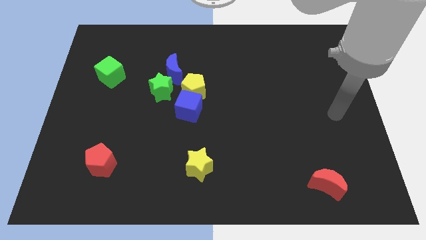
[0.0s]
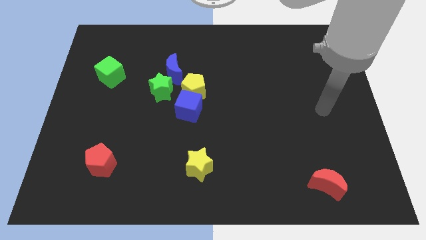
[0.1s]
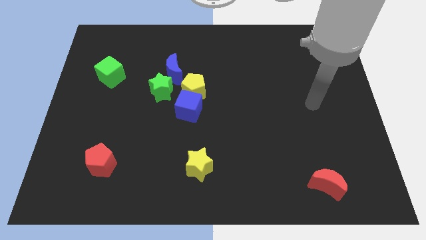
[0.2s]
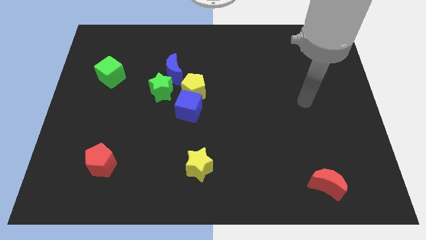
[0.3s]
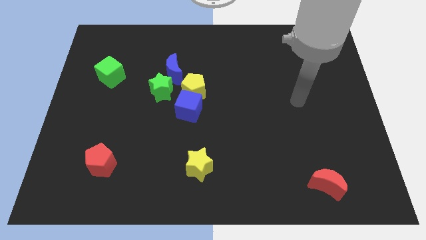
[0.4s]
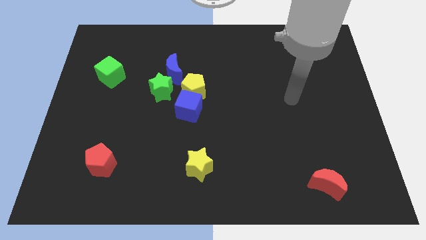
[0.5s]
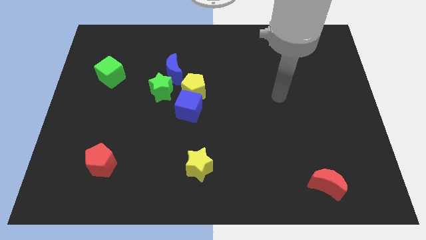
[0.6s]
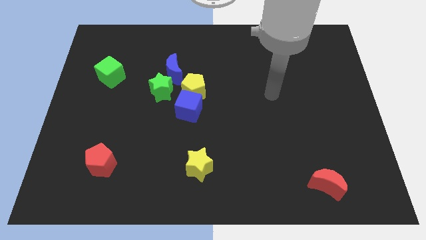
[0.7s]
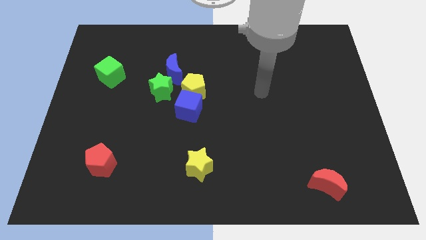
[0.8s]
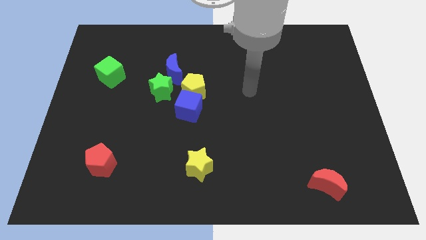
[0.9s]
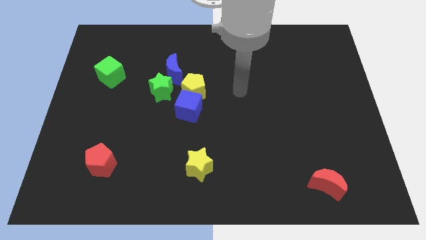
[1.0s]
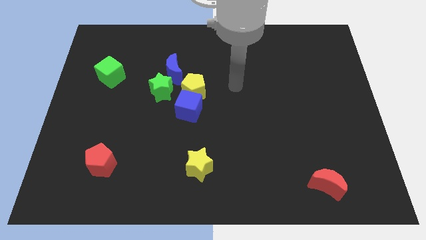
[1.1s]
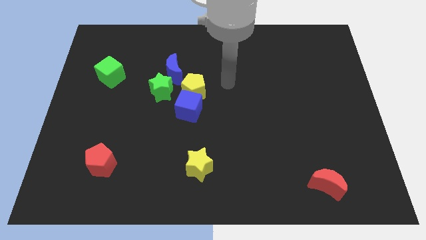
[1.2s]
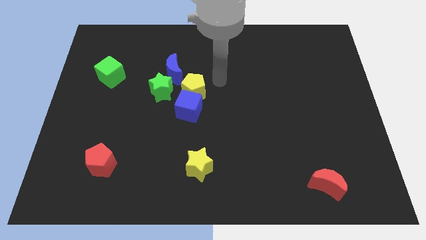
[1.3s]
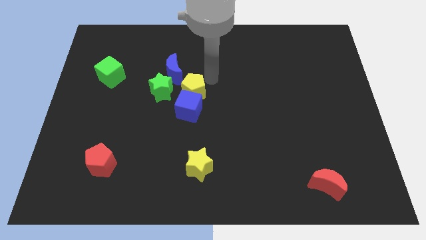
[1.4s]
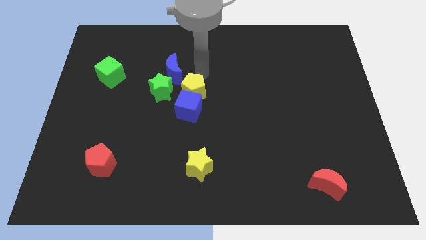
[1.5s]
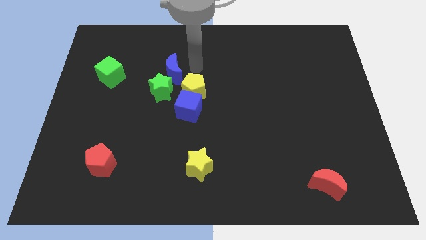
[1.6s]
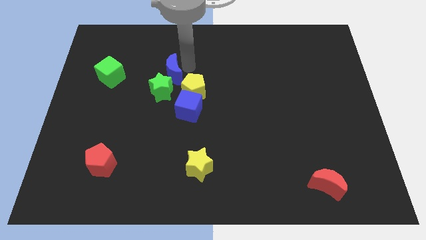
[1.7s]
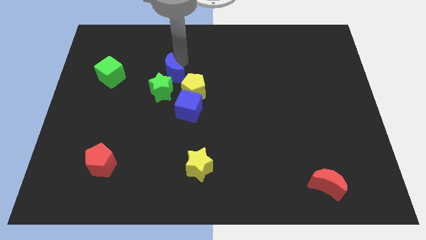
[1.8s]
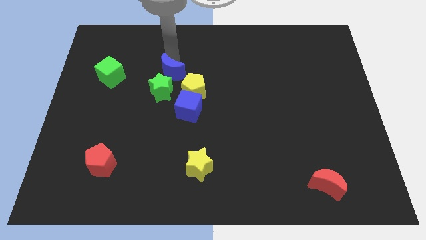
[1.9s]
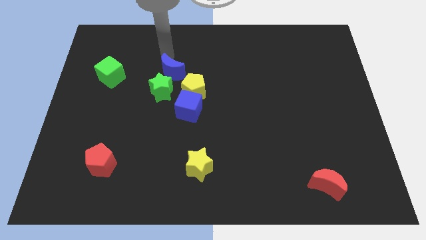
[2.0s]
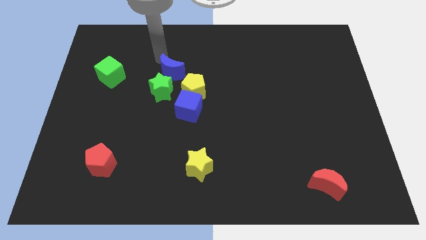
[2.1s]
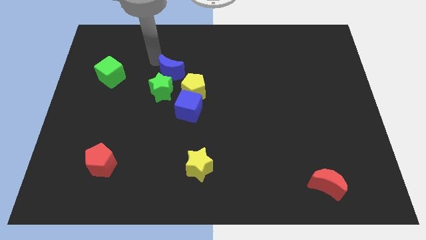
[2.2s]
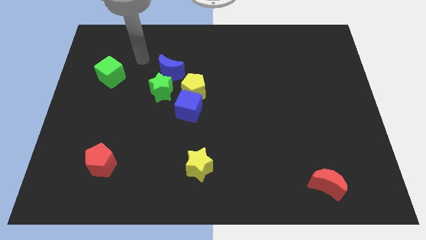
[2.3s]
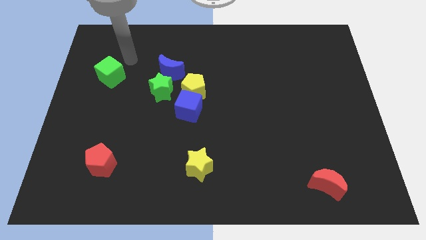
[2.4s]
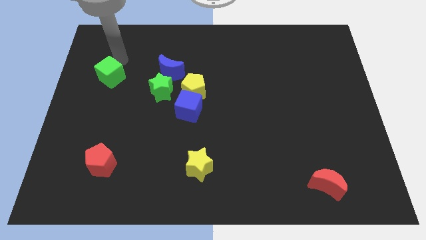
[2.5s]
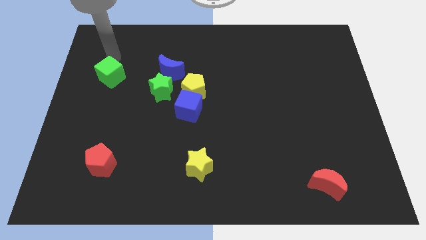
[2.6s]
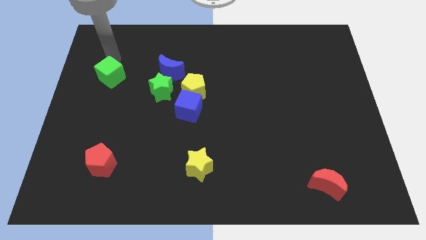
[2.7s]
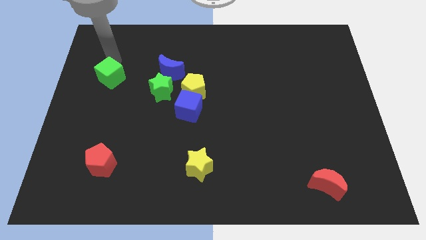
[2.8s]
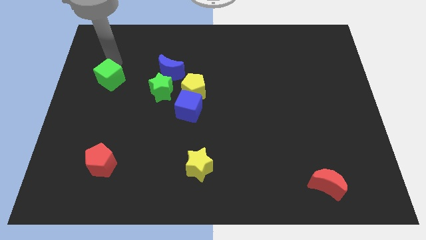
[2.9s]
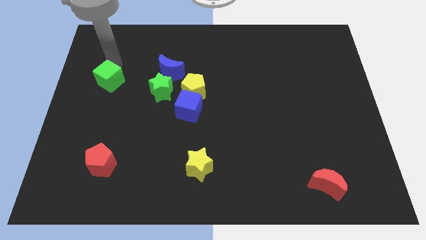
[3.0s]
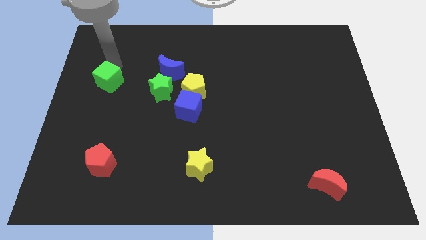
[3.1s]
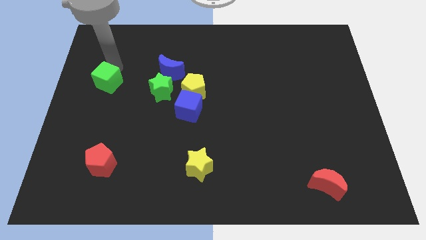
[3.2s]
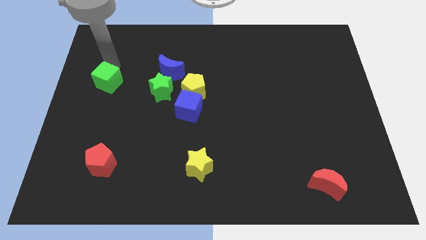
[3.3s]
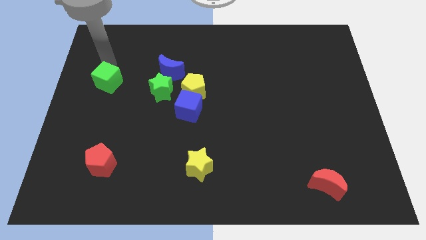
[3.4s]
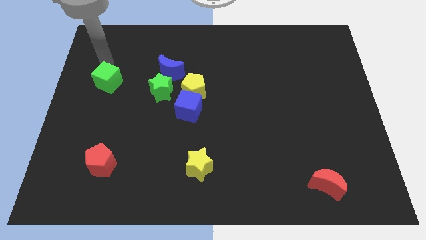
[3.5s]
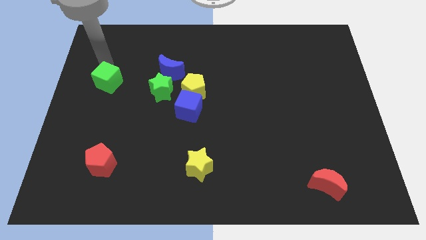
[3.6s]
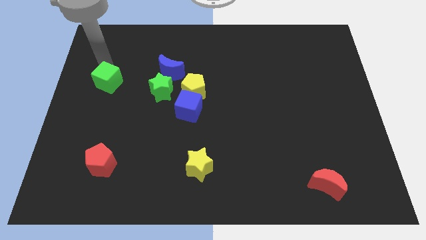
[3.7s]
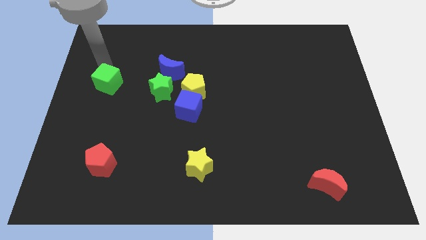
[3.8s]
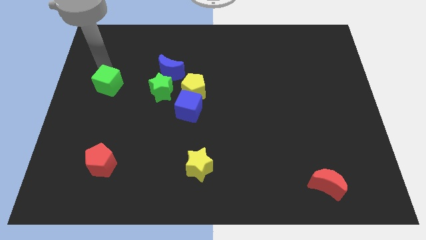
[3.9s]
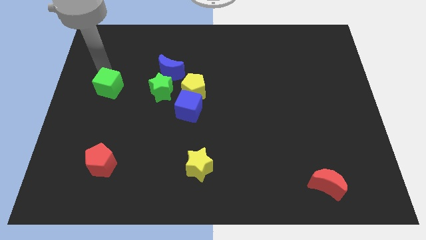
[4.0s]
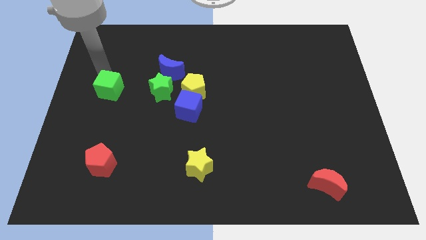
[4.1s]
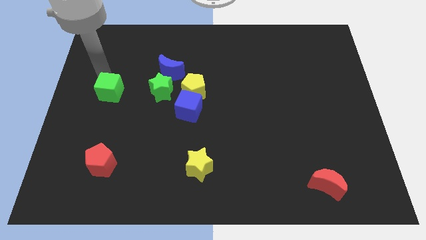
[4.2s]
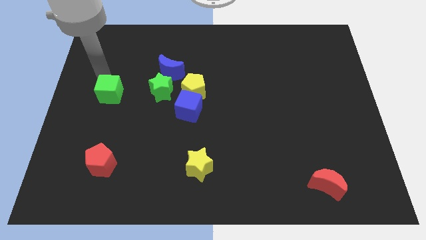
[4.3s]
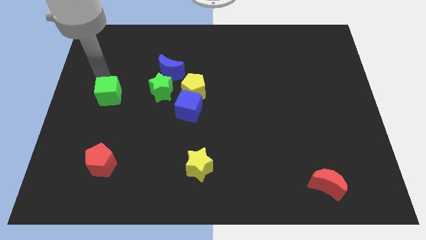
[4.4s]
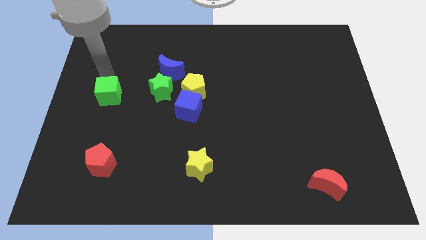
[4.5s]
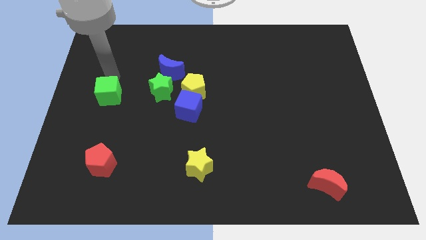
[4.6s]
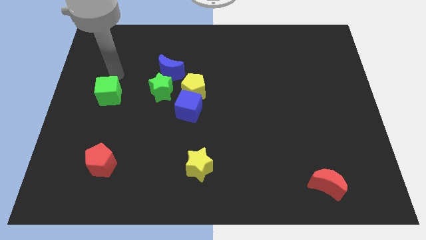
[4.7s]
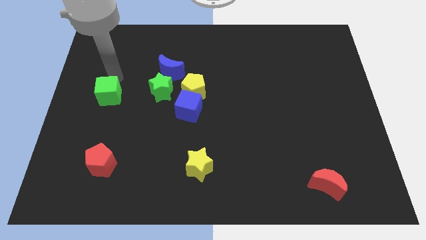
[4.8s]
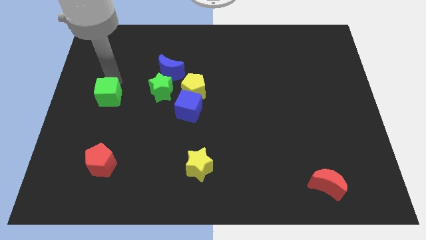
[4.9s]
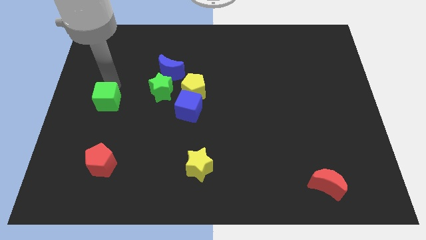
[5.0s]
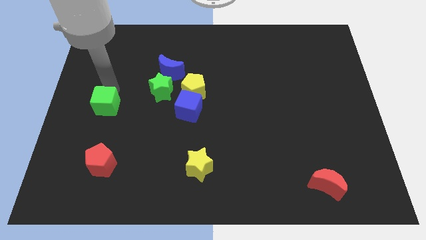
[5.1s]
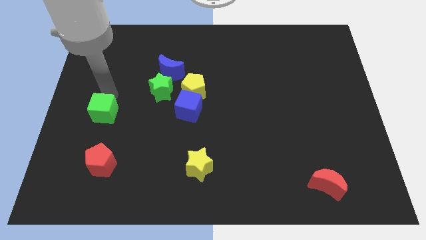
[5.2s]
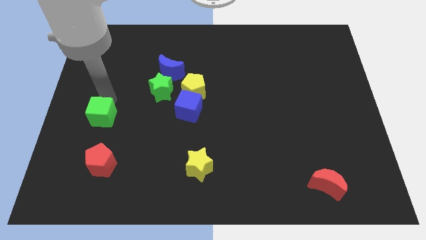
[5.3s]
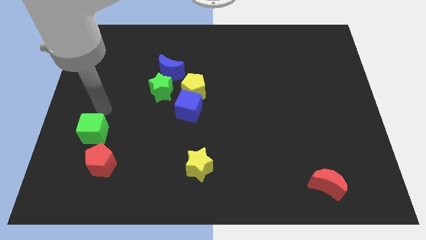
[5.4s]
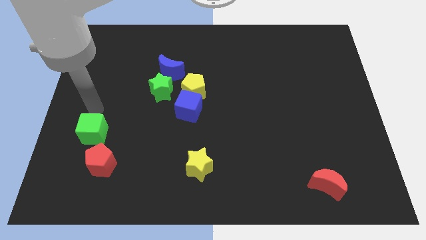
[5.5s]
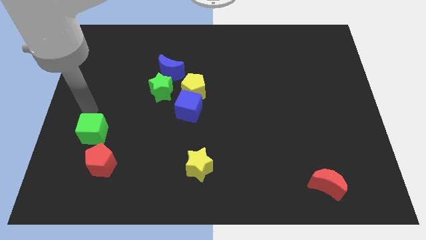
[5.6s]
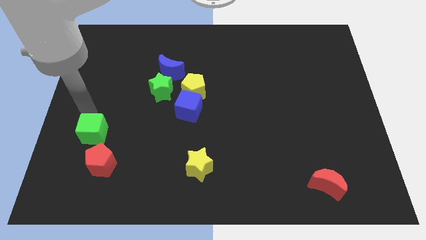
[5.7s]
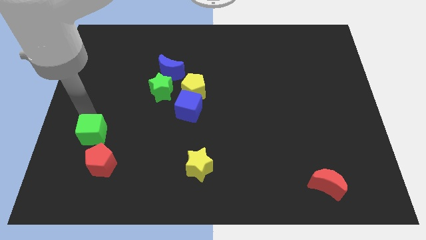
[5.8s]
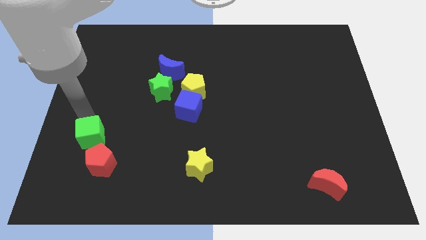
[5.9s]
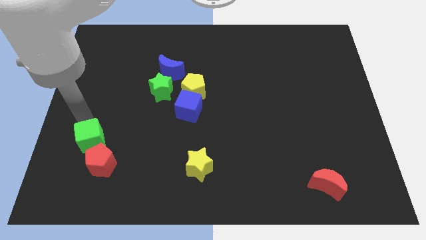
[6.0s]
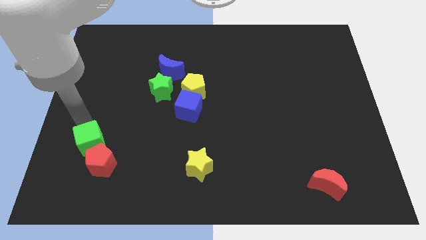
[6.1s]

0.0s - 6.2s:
push the green cube towards the red pentagon

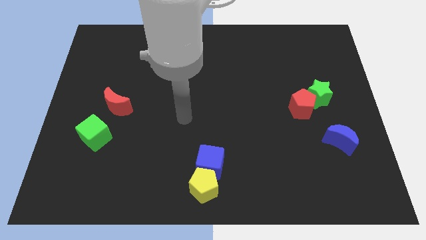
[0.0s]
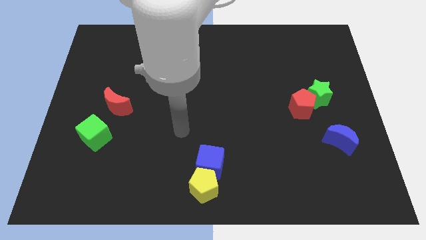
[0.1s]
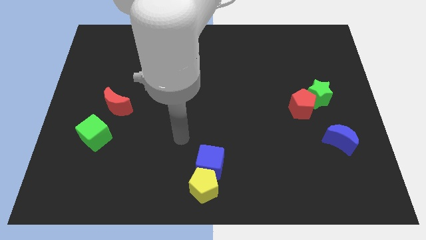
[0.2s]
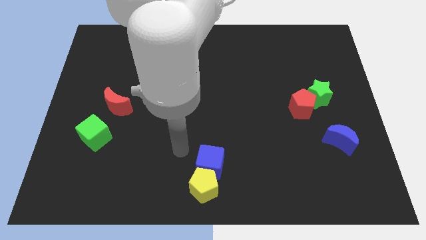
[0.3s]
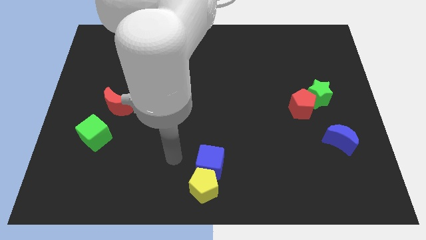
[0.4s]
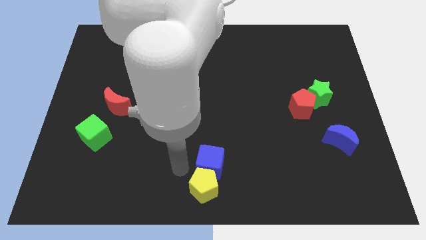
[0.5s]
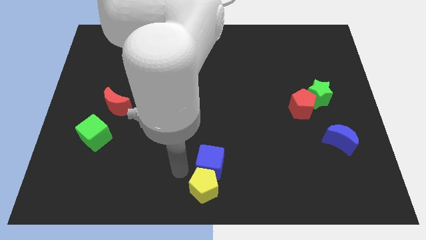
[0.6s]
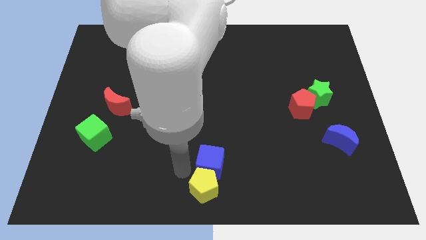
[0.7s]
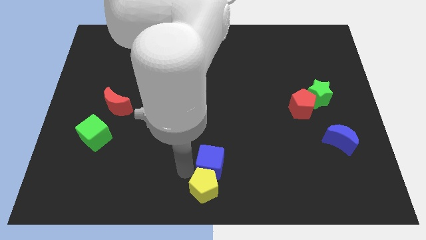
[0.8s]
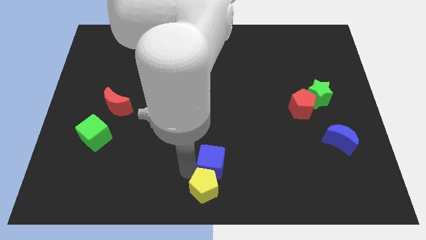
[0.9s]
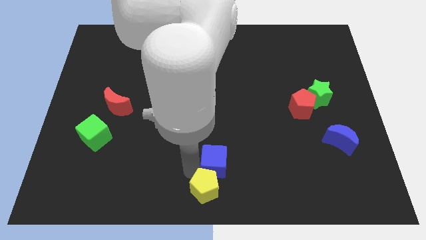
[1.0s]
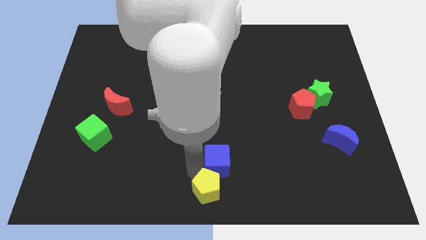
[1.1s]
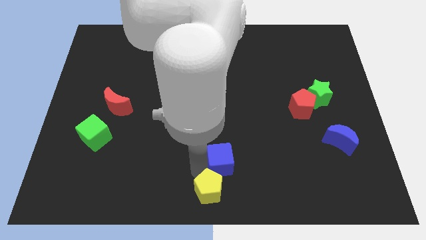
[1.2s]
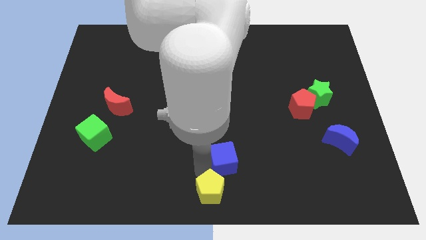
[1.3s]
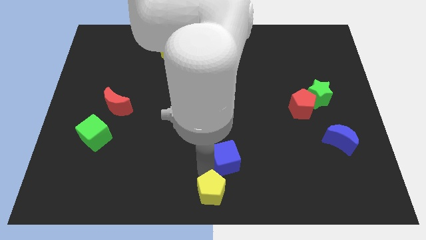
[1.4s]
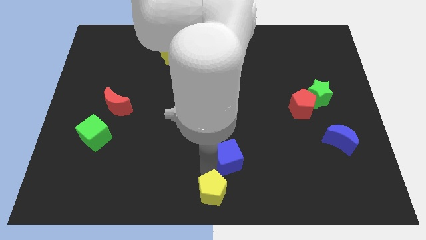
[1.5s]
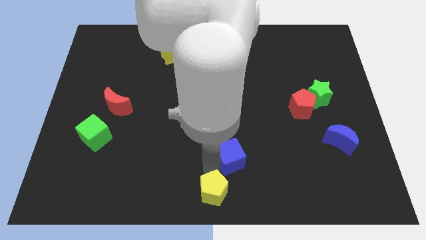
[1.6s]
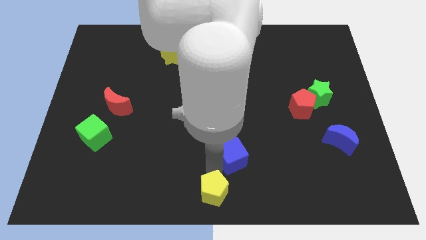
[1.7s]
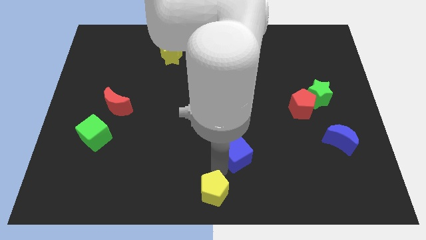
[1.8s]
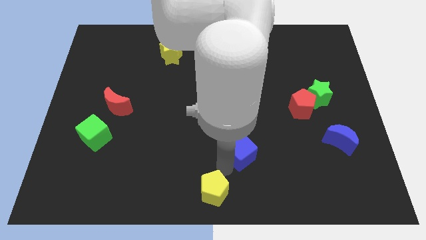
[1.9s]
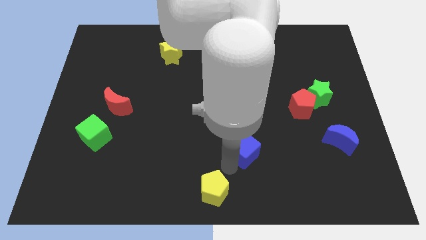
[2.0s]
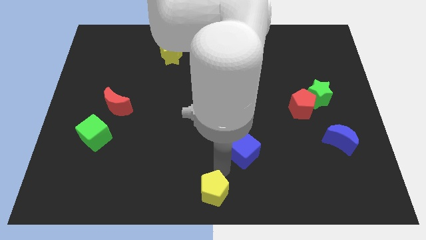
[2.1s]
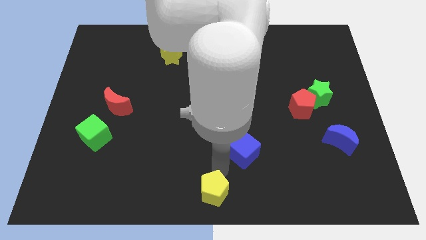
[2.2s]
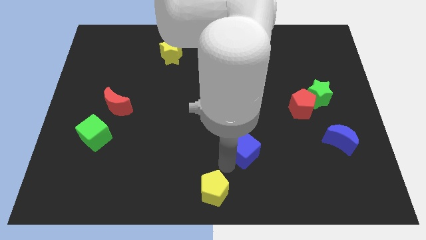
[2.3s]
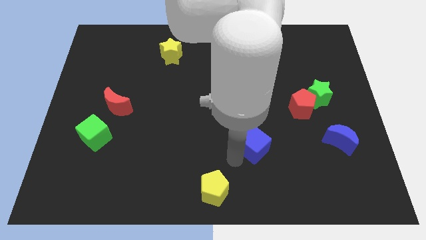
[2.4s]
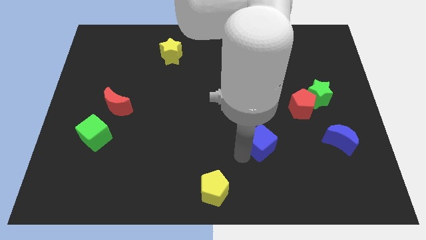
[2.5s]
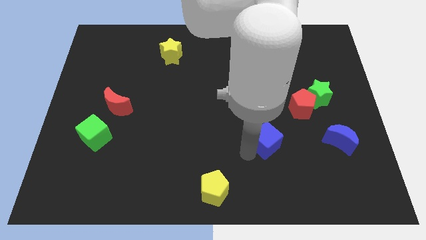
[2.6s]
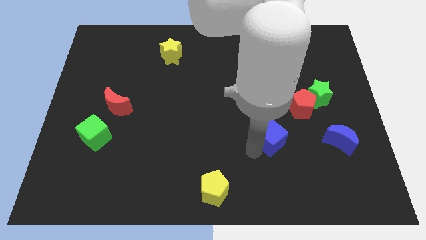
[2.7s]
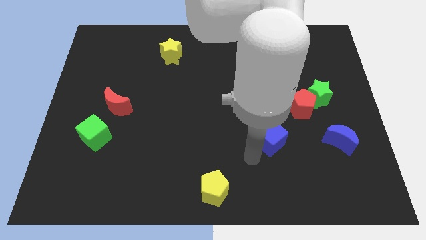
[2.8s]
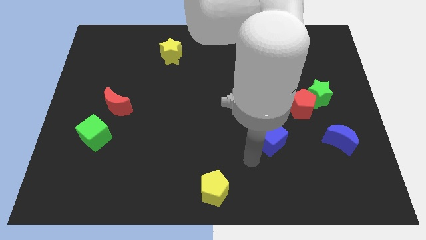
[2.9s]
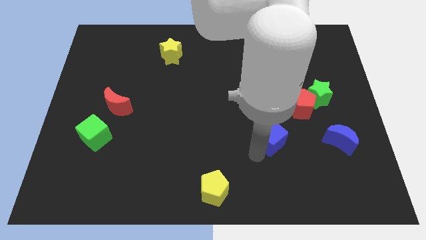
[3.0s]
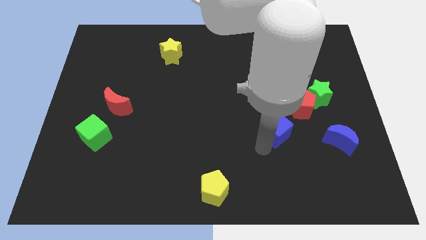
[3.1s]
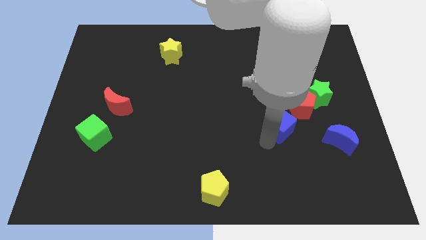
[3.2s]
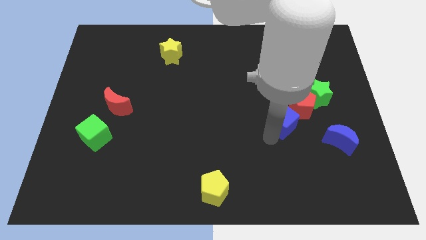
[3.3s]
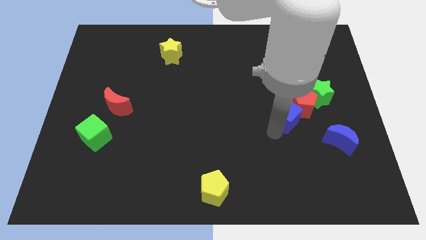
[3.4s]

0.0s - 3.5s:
move the blue cube towards the red pentagon
